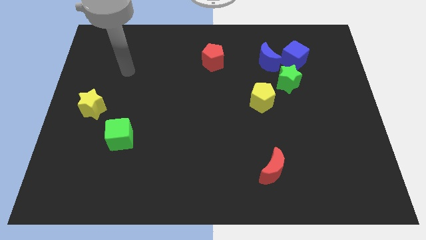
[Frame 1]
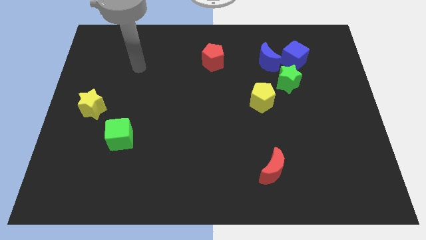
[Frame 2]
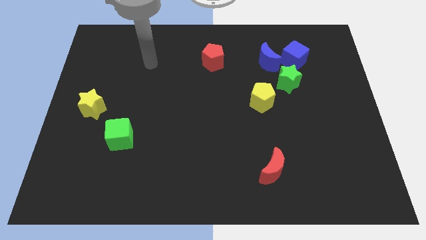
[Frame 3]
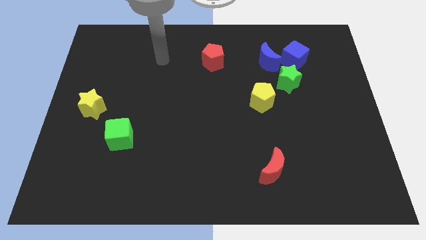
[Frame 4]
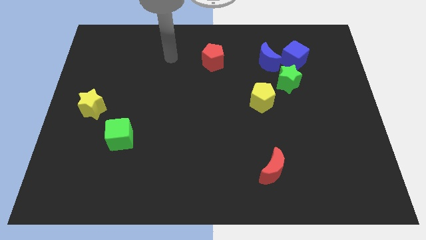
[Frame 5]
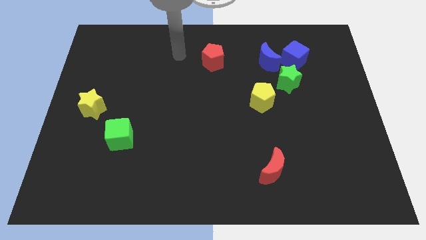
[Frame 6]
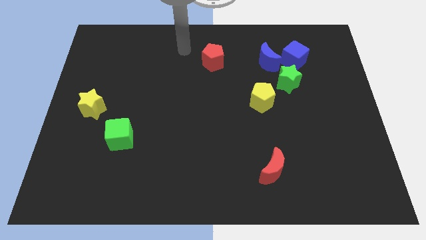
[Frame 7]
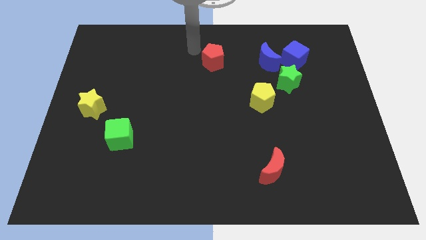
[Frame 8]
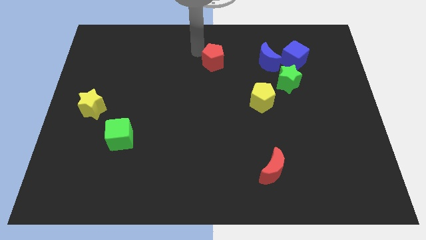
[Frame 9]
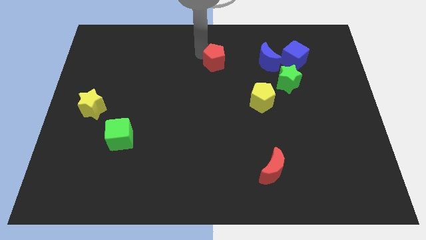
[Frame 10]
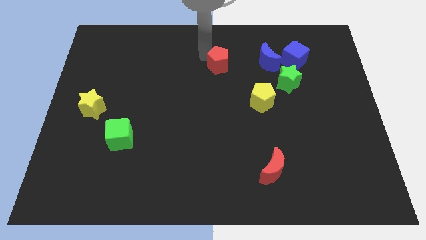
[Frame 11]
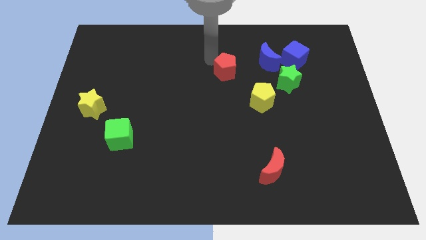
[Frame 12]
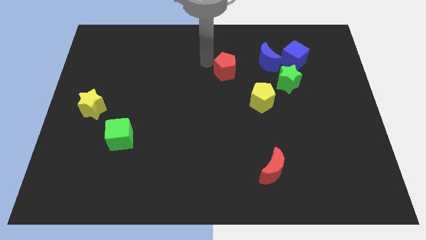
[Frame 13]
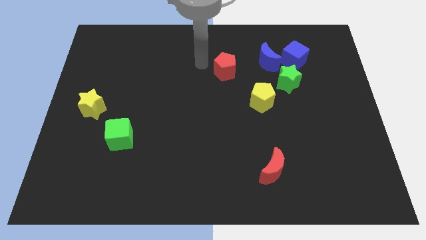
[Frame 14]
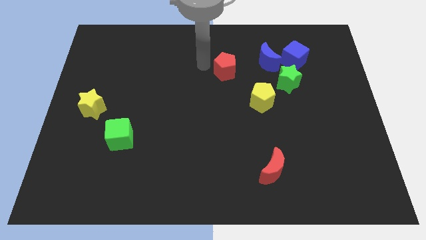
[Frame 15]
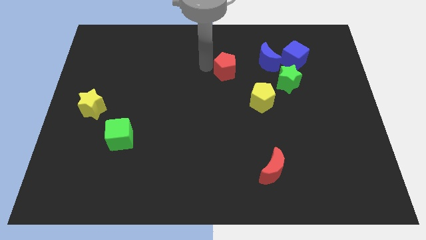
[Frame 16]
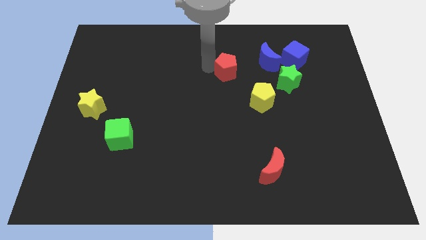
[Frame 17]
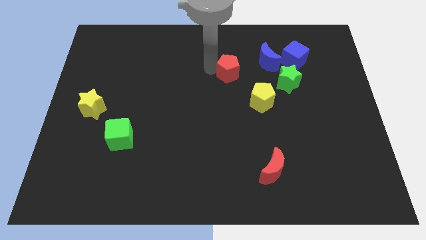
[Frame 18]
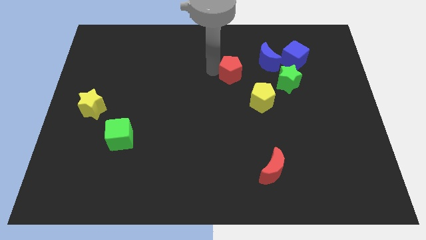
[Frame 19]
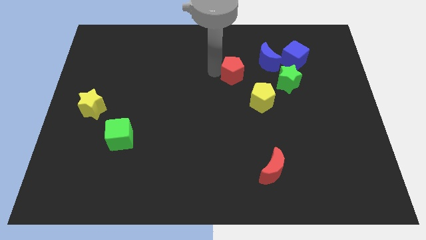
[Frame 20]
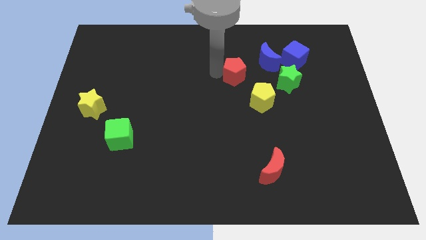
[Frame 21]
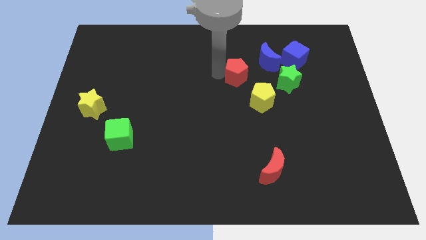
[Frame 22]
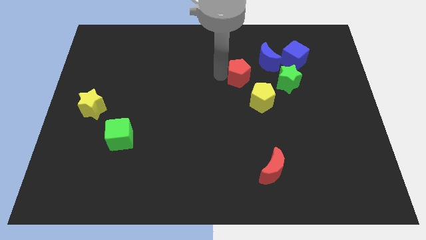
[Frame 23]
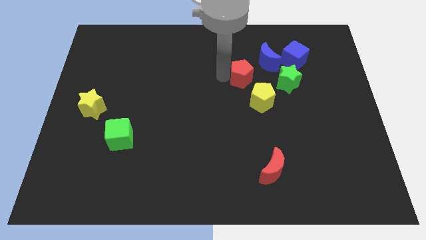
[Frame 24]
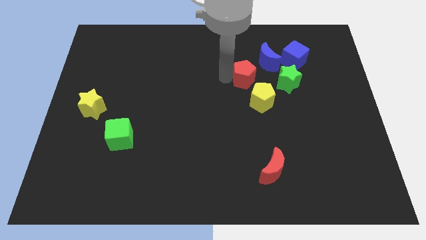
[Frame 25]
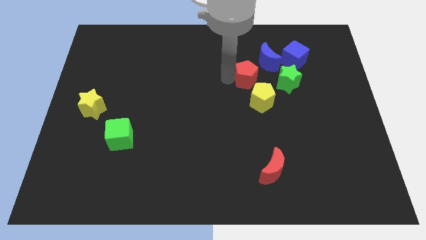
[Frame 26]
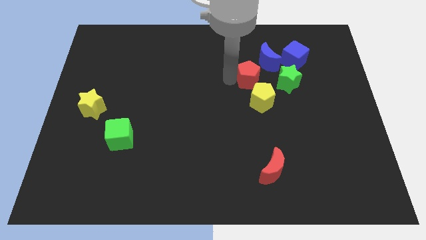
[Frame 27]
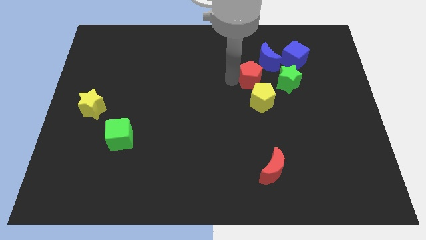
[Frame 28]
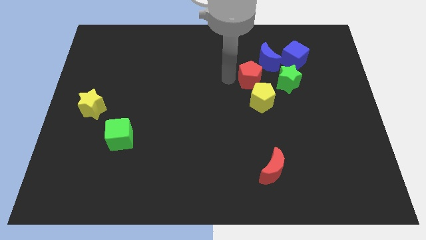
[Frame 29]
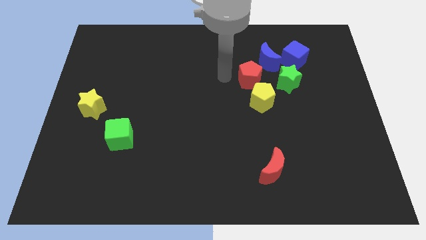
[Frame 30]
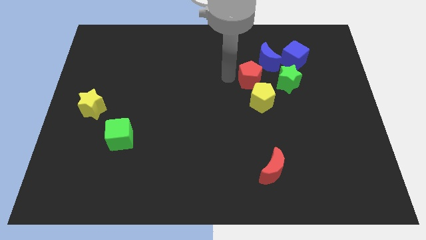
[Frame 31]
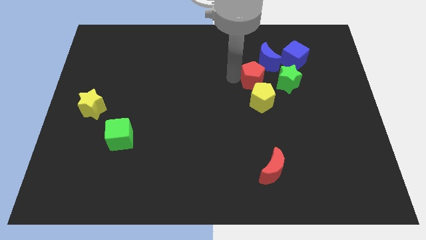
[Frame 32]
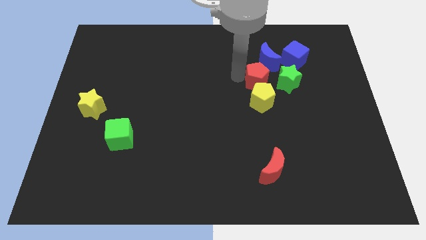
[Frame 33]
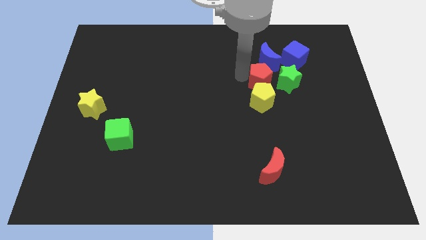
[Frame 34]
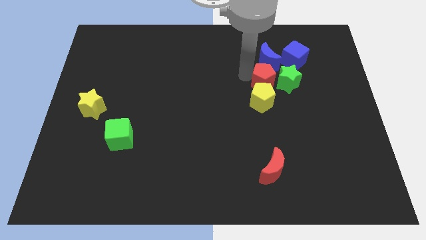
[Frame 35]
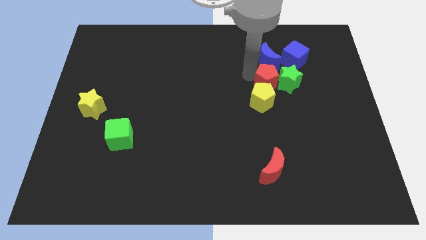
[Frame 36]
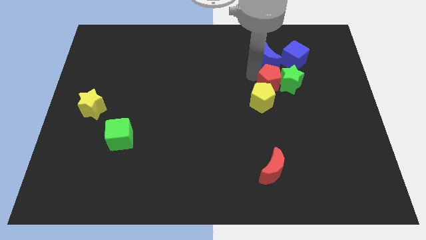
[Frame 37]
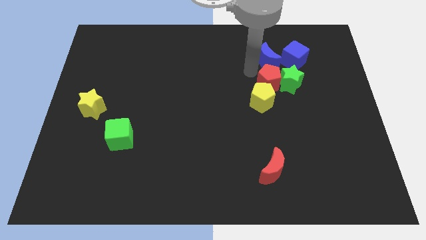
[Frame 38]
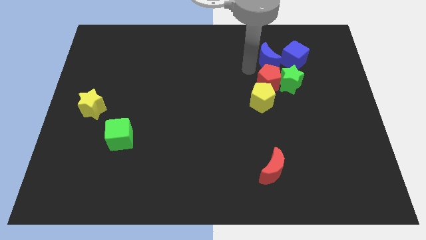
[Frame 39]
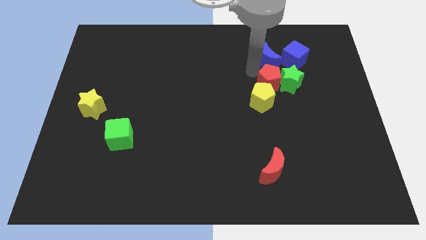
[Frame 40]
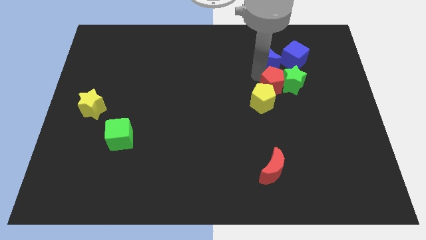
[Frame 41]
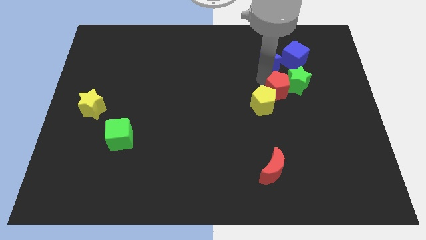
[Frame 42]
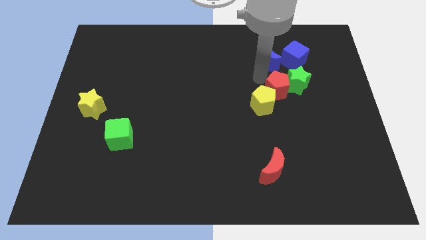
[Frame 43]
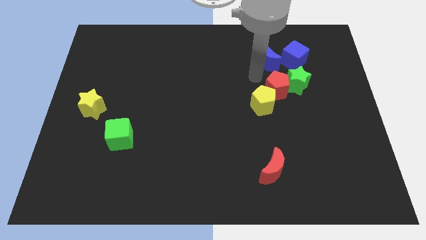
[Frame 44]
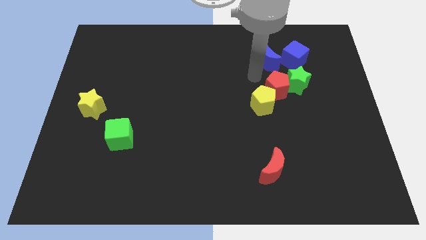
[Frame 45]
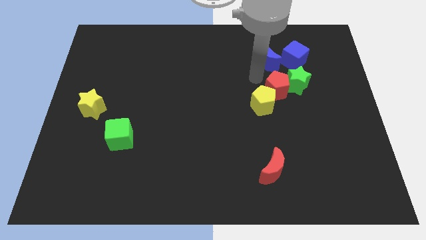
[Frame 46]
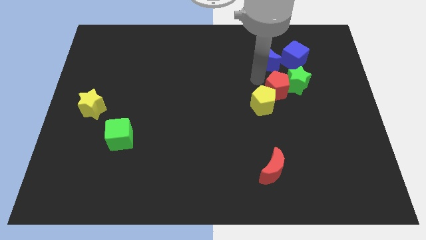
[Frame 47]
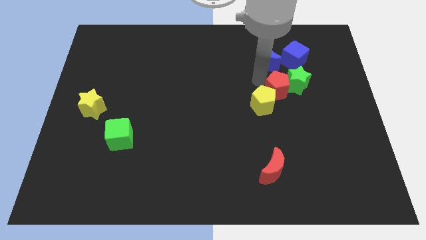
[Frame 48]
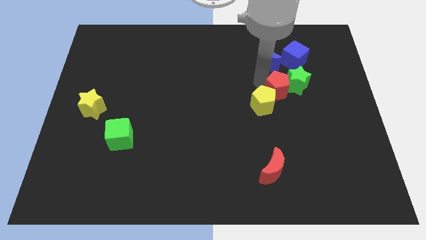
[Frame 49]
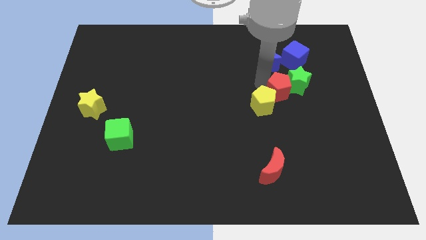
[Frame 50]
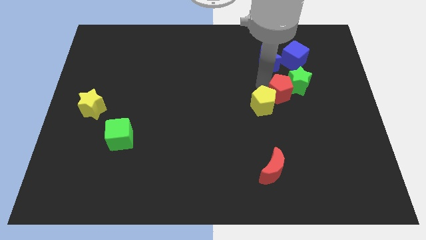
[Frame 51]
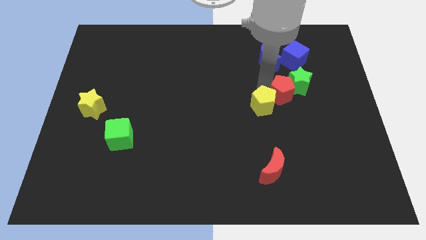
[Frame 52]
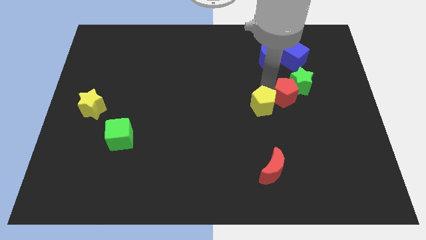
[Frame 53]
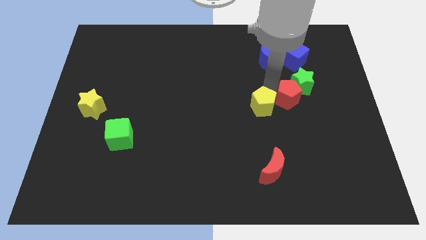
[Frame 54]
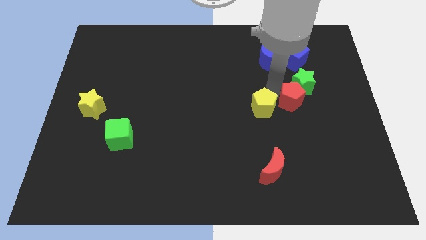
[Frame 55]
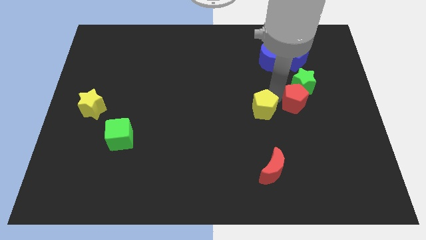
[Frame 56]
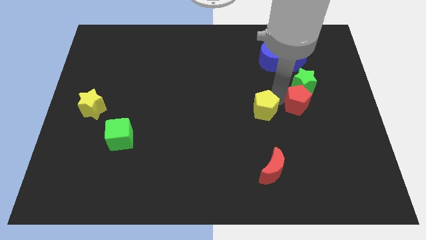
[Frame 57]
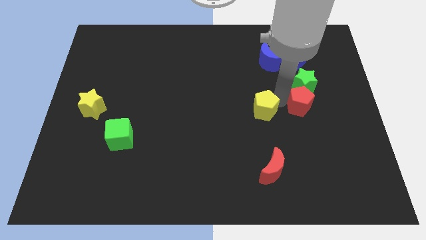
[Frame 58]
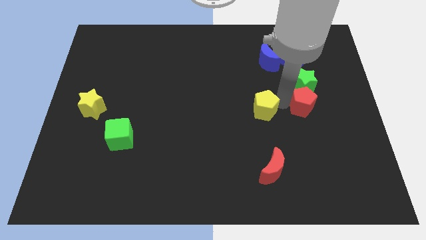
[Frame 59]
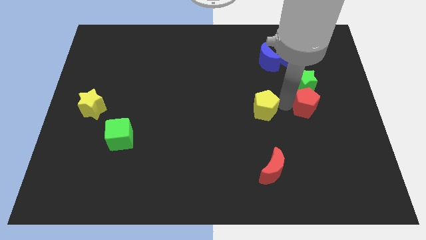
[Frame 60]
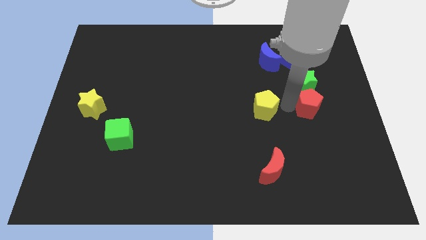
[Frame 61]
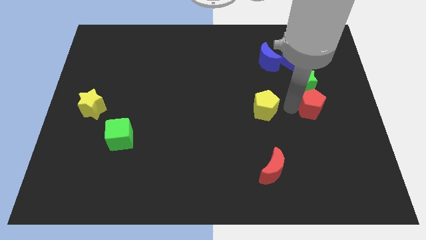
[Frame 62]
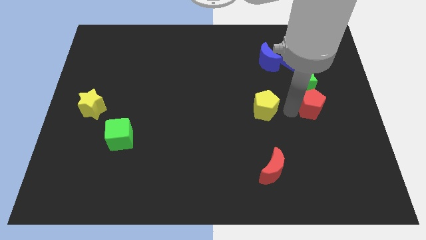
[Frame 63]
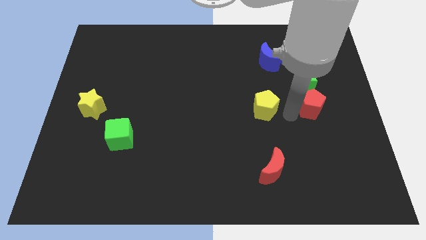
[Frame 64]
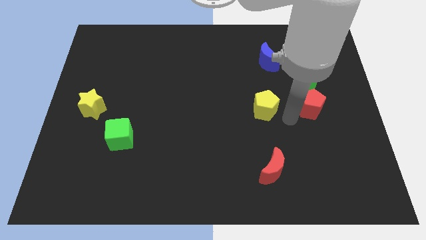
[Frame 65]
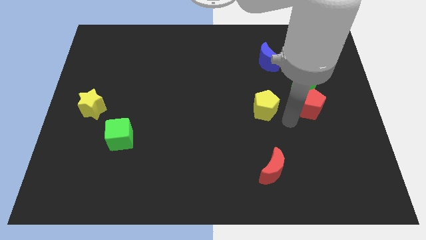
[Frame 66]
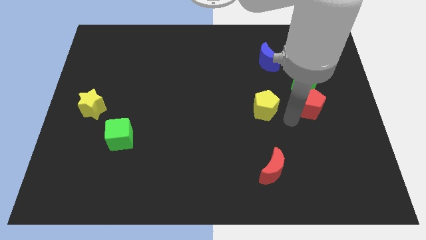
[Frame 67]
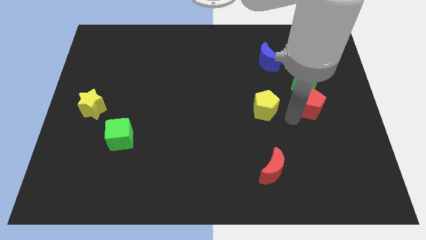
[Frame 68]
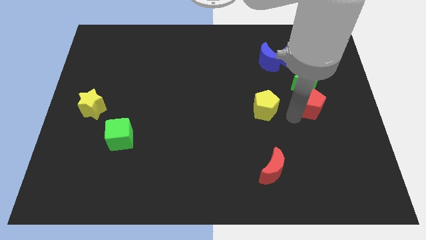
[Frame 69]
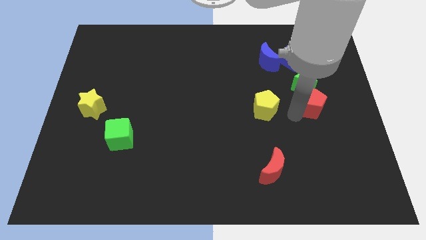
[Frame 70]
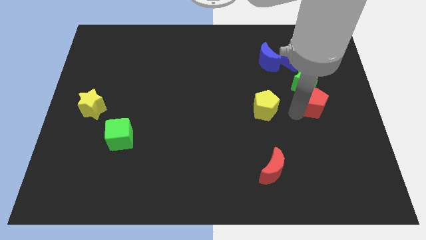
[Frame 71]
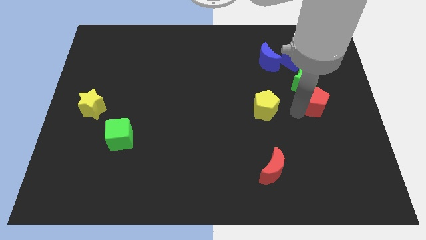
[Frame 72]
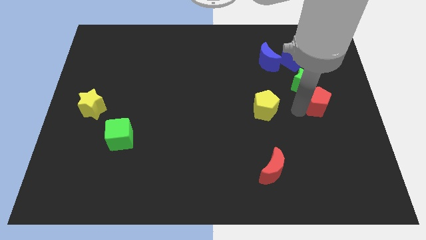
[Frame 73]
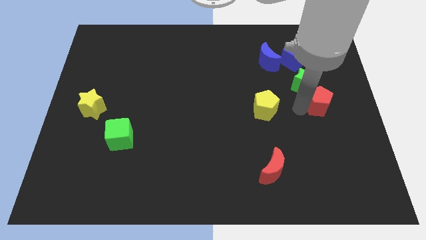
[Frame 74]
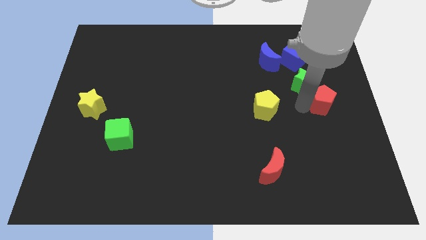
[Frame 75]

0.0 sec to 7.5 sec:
move the red pentagon to the right side
